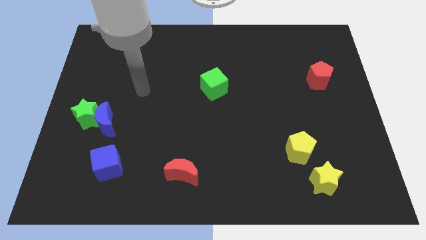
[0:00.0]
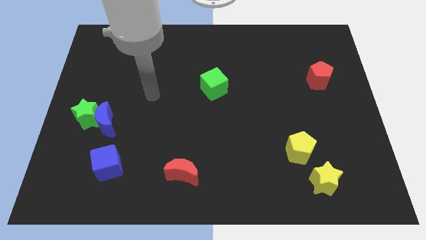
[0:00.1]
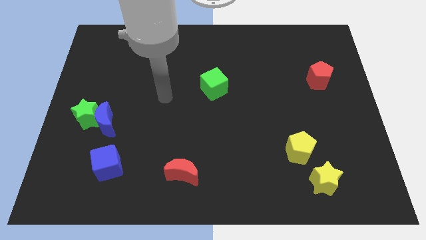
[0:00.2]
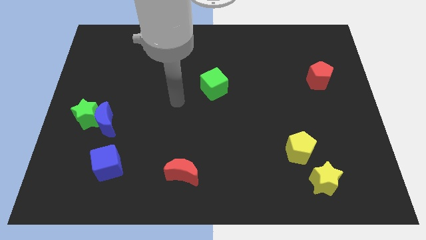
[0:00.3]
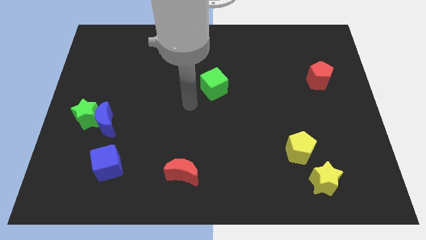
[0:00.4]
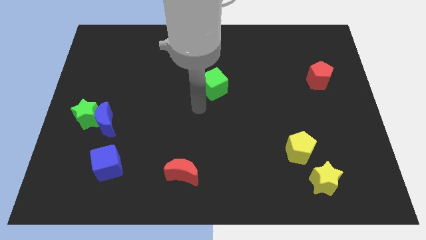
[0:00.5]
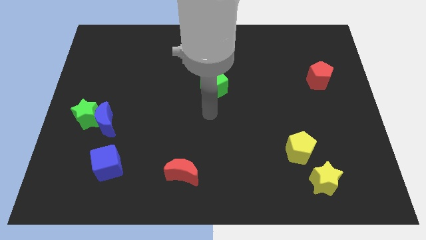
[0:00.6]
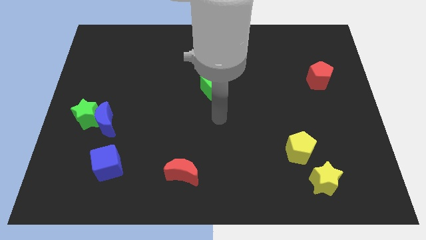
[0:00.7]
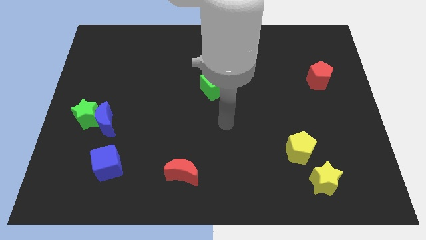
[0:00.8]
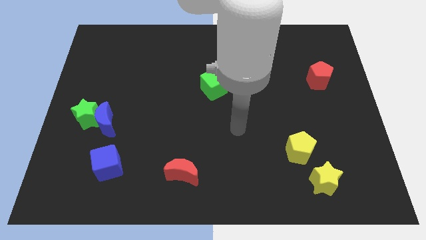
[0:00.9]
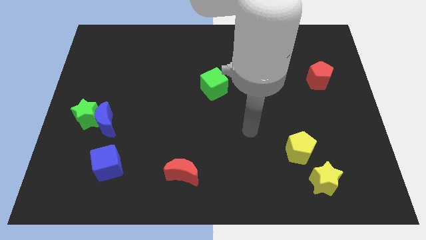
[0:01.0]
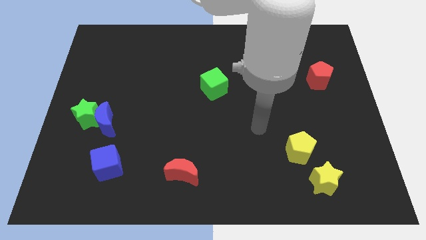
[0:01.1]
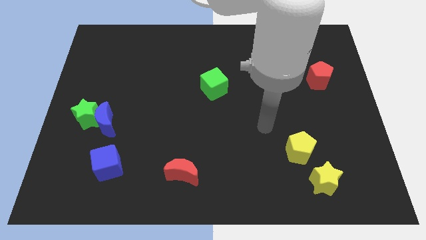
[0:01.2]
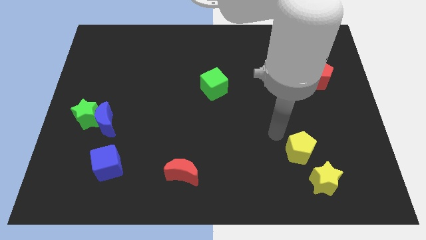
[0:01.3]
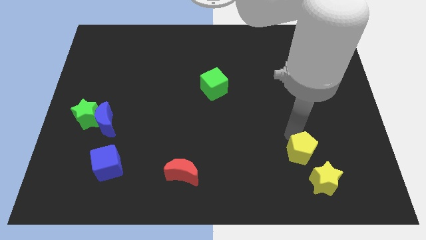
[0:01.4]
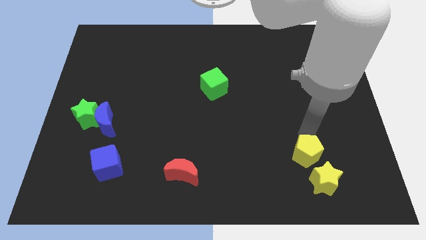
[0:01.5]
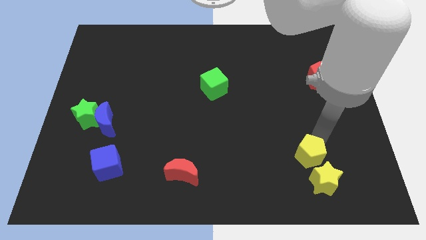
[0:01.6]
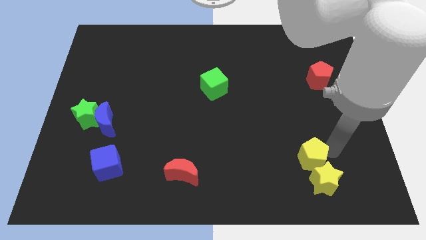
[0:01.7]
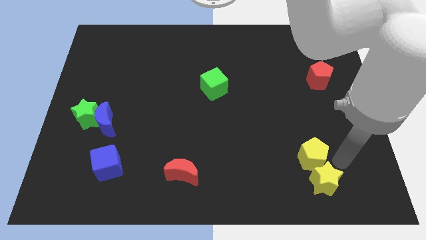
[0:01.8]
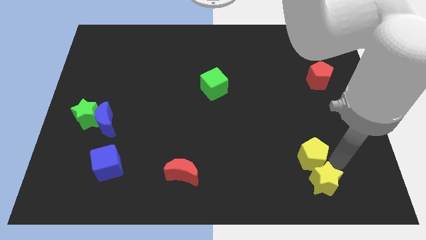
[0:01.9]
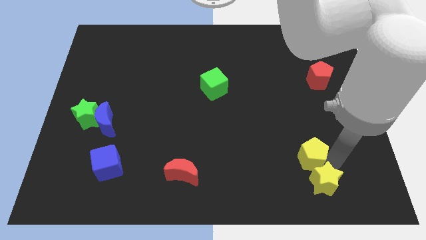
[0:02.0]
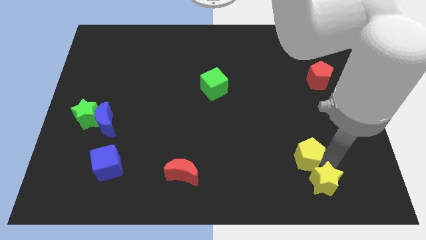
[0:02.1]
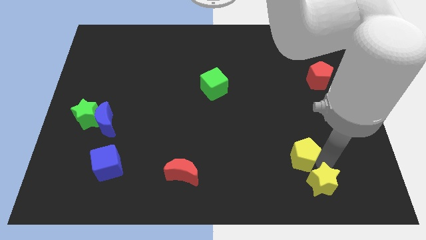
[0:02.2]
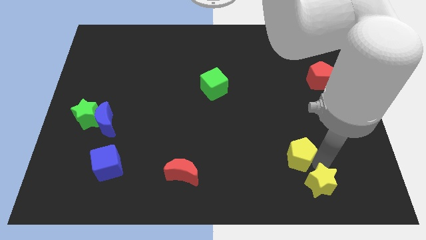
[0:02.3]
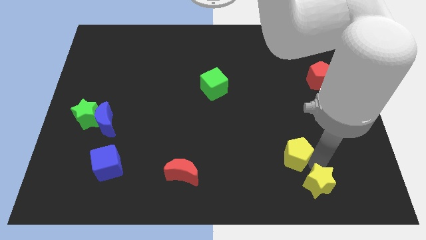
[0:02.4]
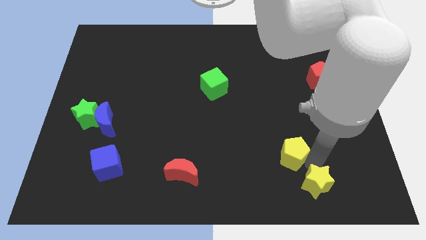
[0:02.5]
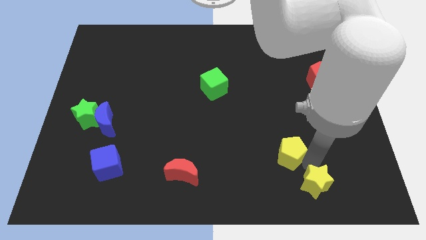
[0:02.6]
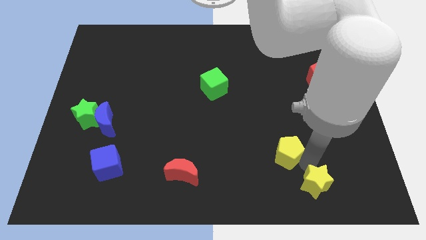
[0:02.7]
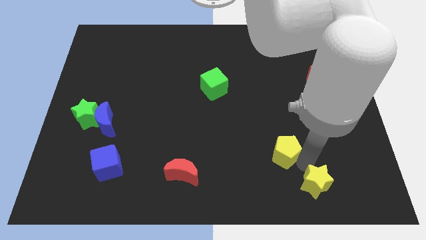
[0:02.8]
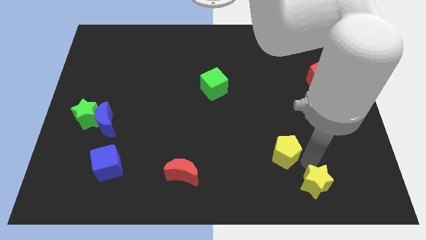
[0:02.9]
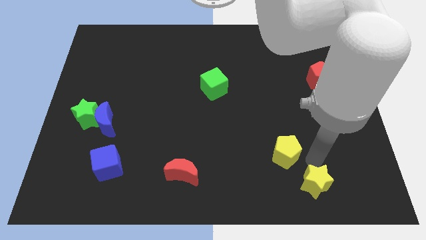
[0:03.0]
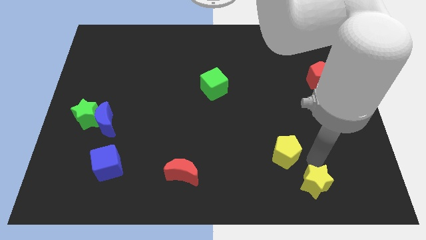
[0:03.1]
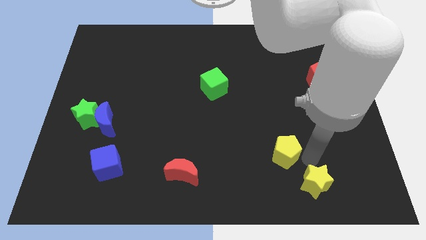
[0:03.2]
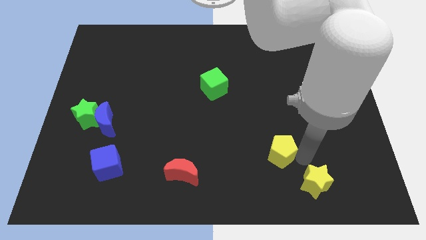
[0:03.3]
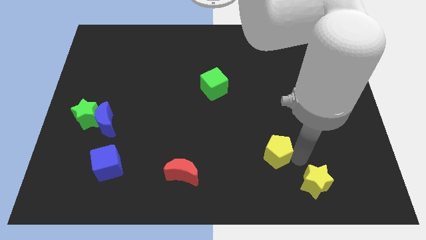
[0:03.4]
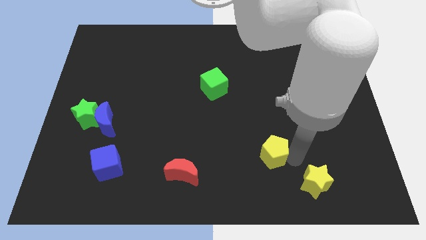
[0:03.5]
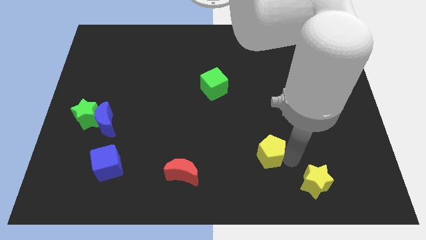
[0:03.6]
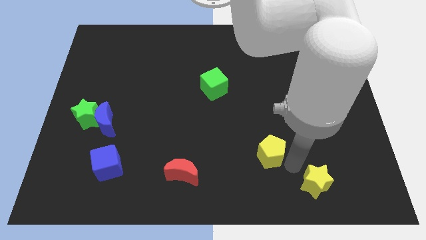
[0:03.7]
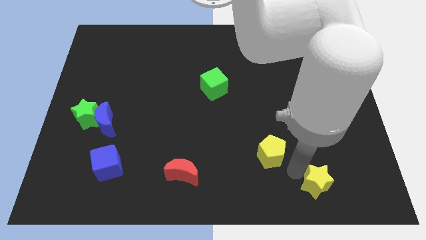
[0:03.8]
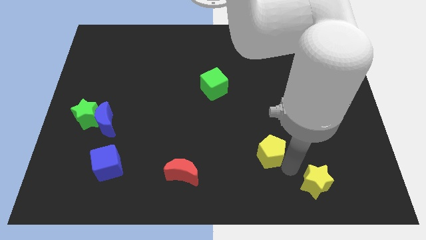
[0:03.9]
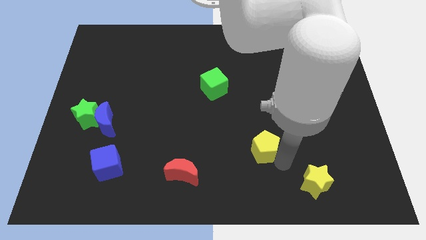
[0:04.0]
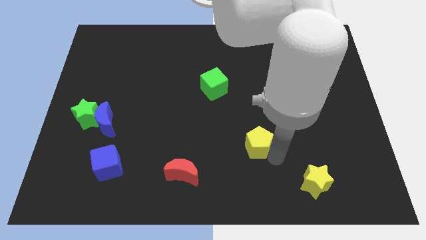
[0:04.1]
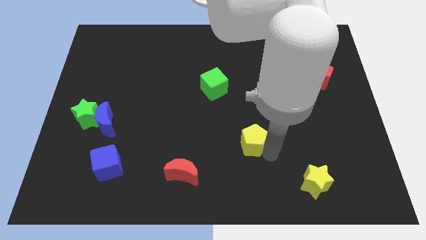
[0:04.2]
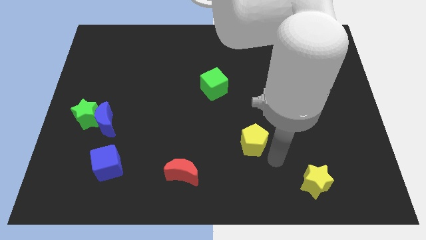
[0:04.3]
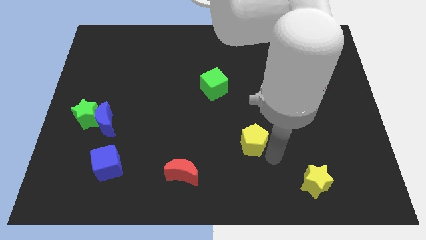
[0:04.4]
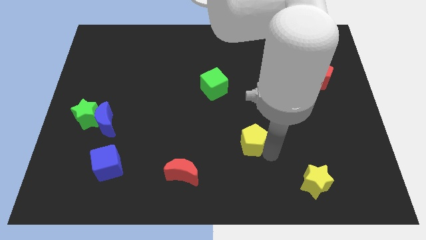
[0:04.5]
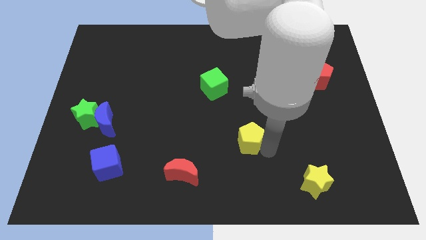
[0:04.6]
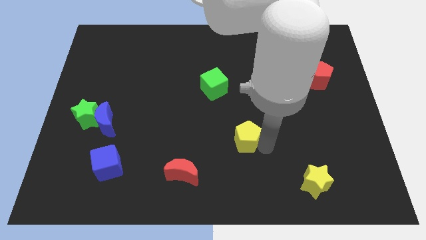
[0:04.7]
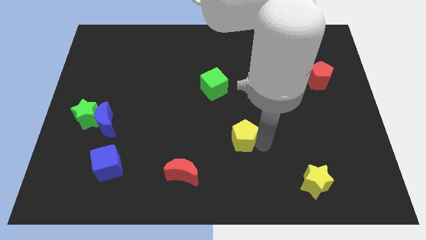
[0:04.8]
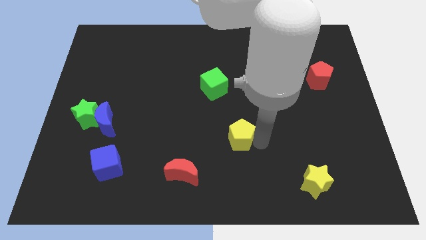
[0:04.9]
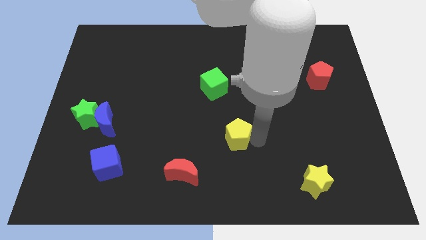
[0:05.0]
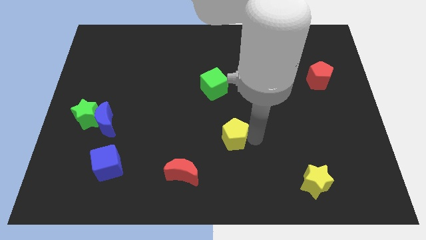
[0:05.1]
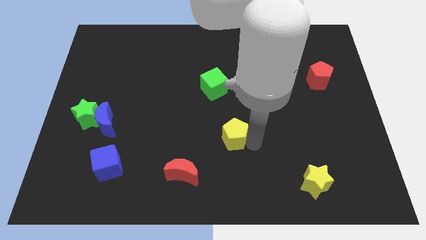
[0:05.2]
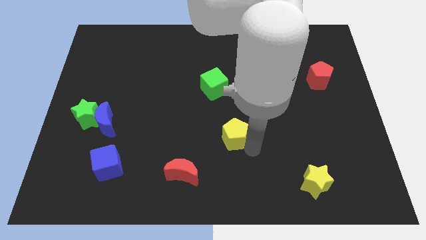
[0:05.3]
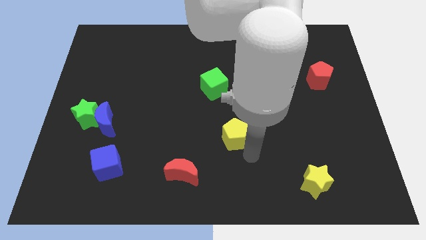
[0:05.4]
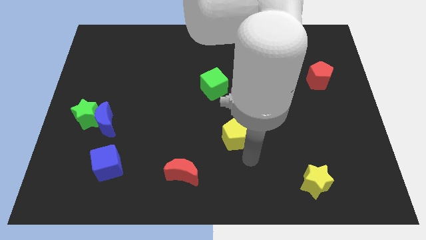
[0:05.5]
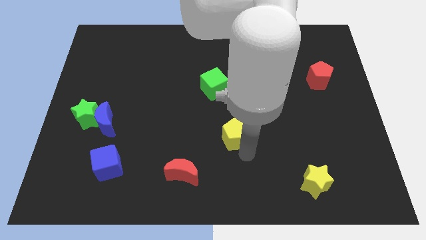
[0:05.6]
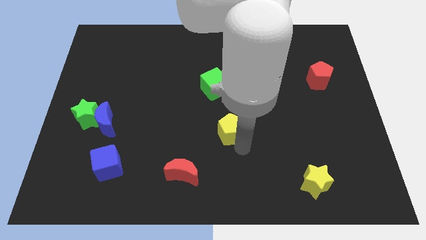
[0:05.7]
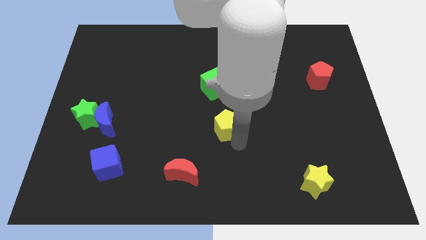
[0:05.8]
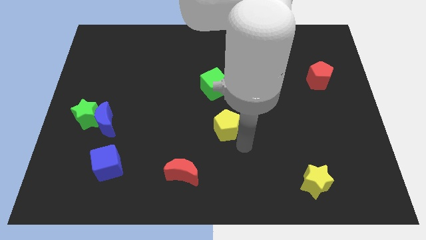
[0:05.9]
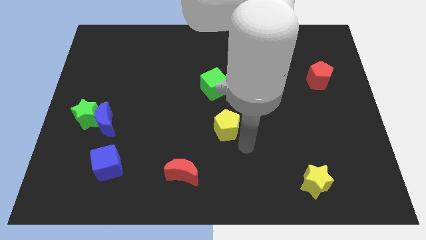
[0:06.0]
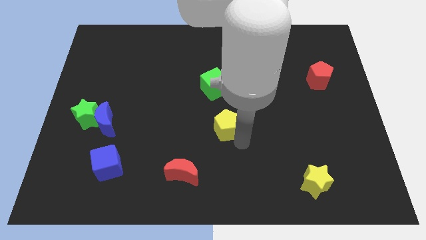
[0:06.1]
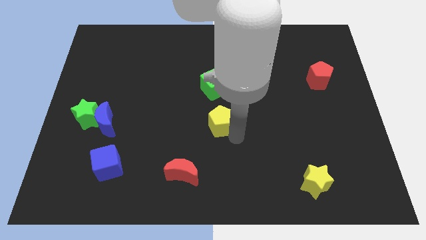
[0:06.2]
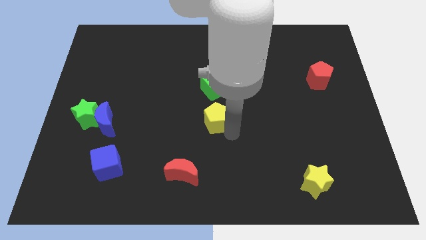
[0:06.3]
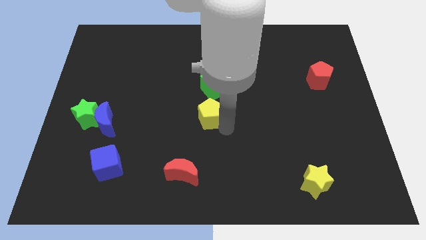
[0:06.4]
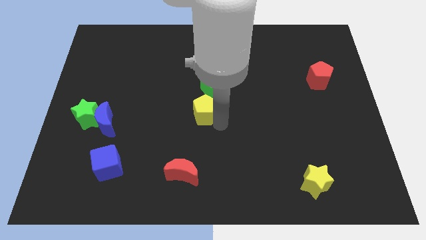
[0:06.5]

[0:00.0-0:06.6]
move the yellow pentagon diagonally down and to the left of the green cube

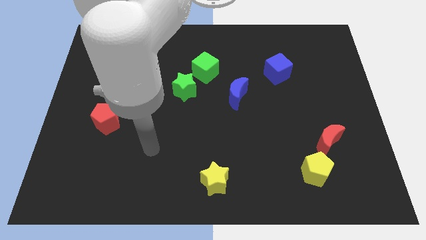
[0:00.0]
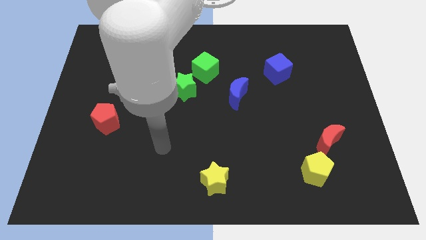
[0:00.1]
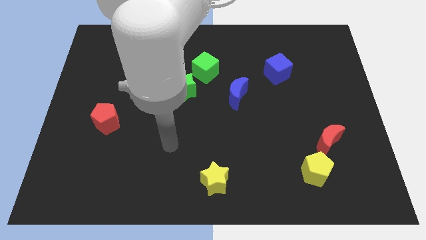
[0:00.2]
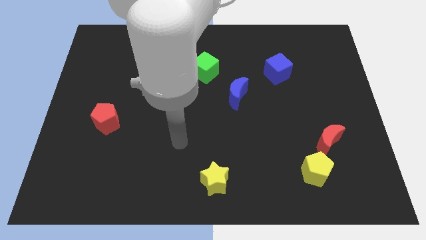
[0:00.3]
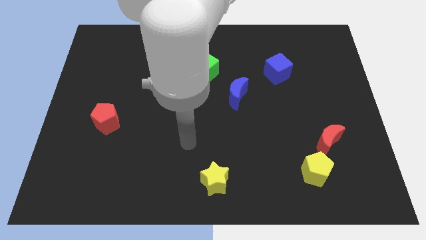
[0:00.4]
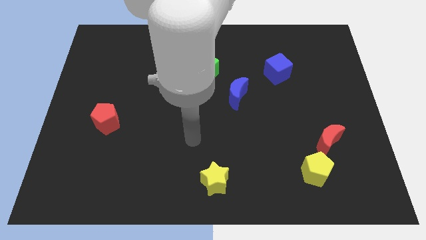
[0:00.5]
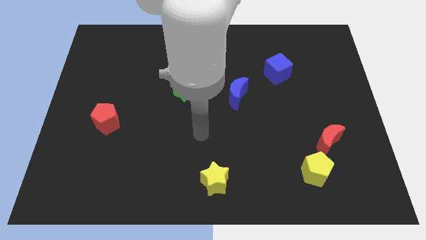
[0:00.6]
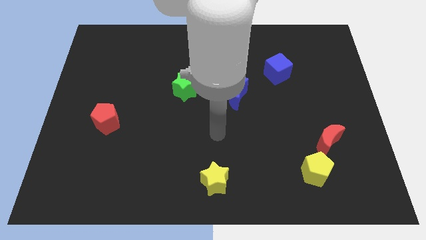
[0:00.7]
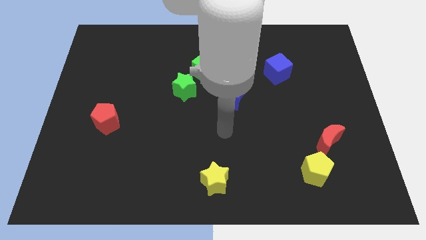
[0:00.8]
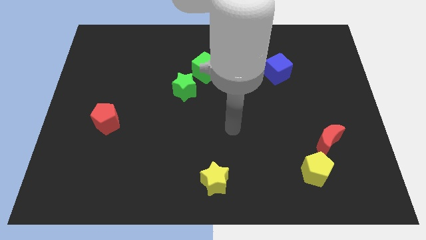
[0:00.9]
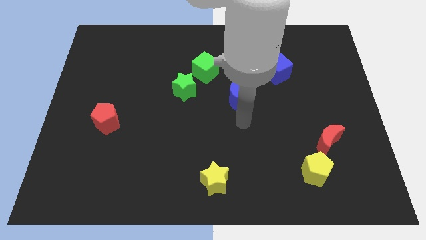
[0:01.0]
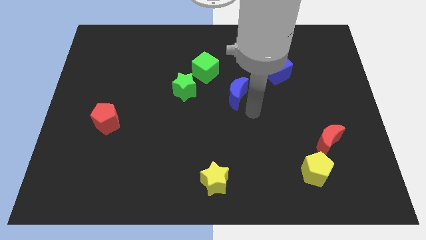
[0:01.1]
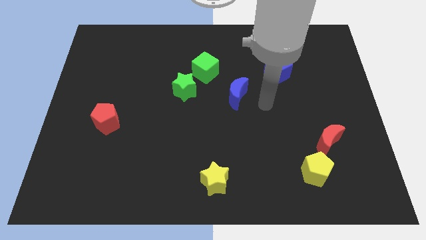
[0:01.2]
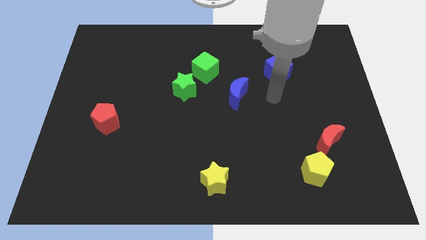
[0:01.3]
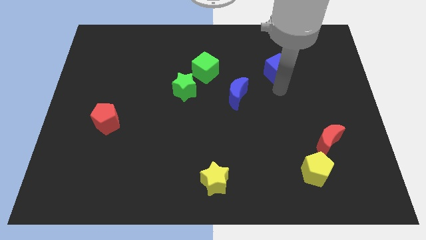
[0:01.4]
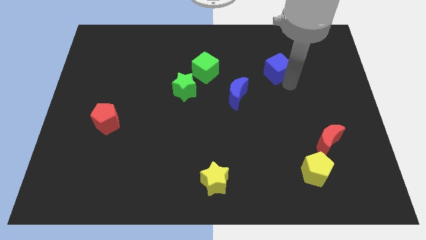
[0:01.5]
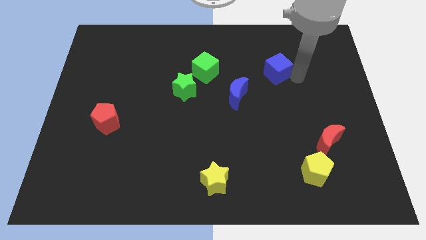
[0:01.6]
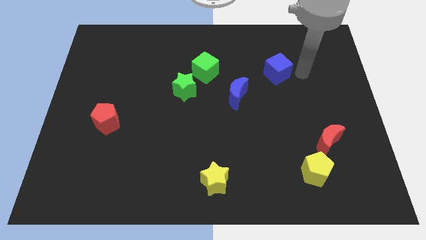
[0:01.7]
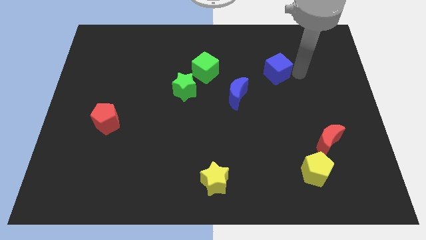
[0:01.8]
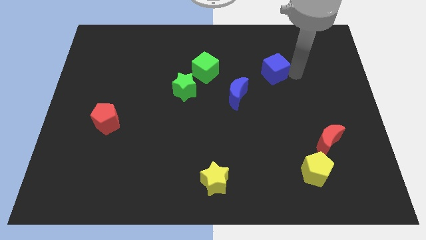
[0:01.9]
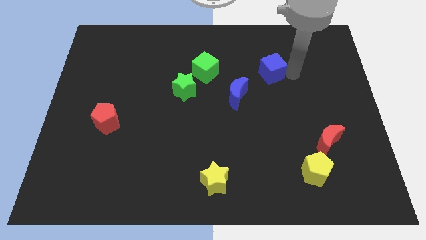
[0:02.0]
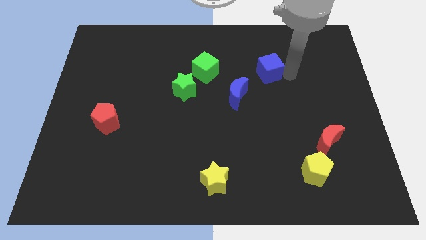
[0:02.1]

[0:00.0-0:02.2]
put the blue cube to the right of the green cube
